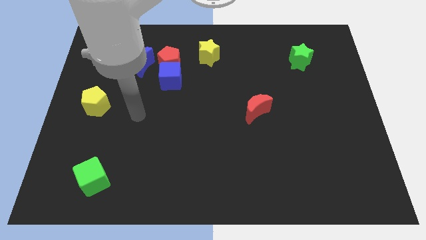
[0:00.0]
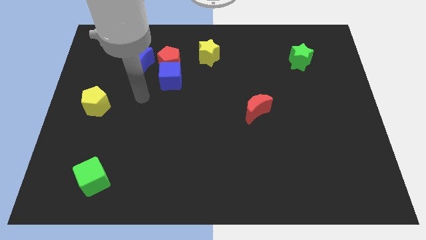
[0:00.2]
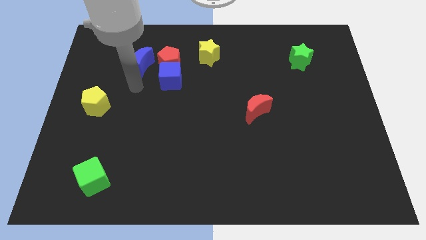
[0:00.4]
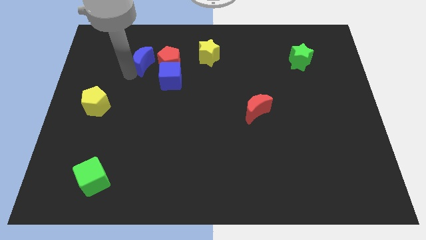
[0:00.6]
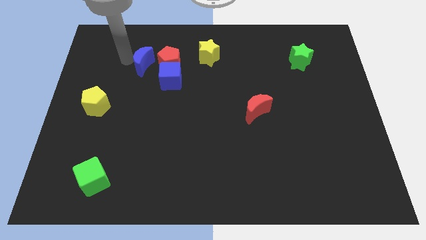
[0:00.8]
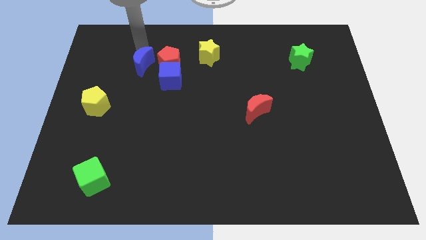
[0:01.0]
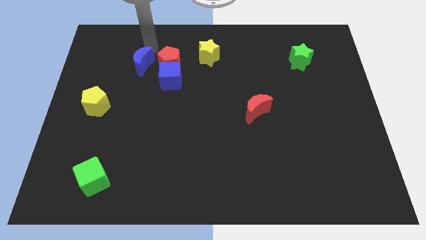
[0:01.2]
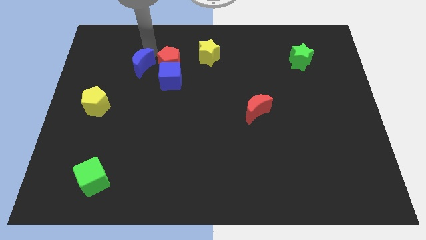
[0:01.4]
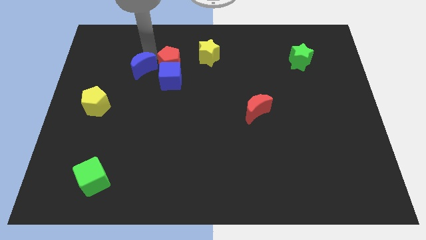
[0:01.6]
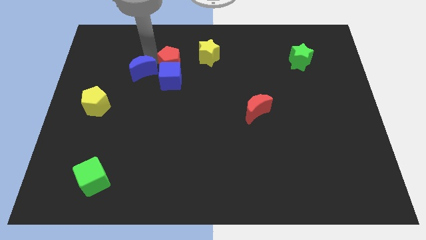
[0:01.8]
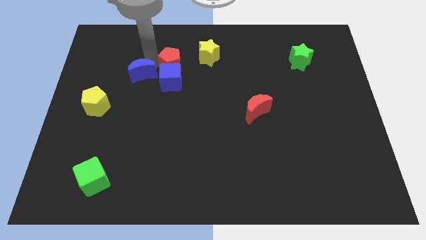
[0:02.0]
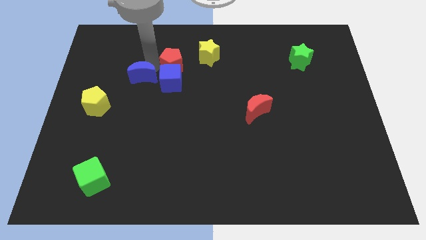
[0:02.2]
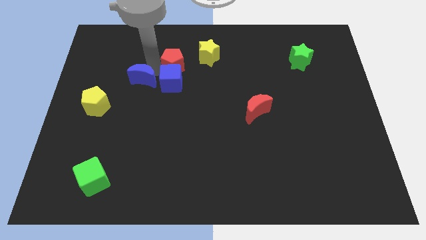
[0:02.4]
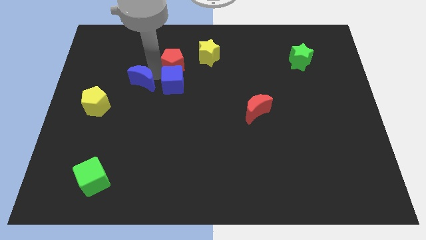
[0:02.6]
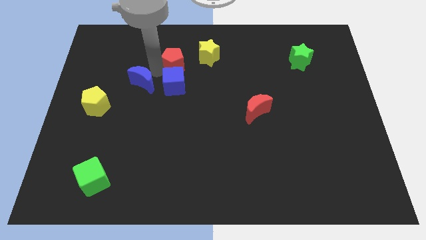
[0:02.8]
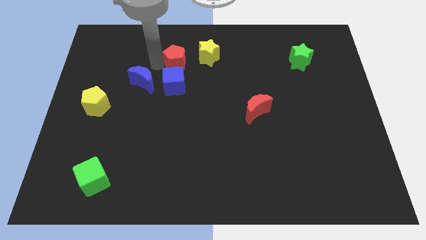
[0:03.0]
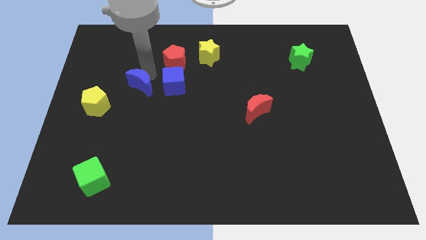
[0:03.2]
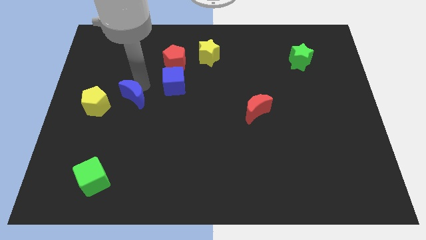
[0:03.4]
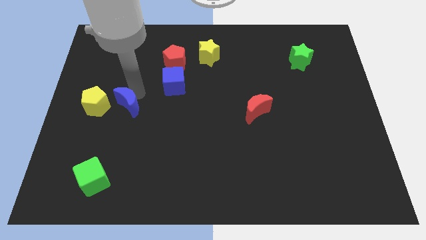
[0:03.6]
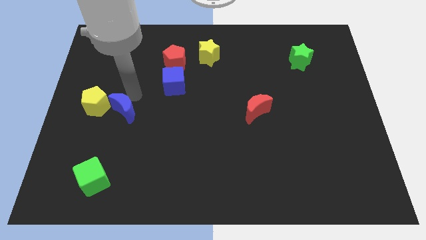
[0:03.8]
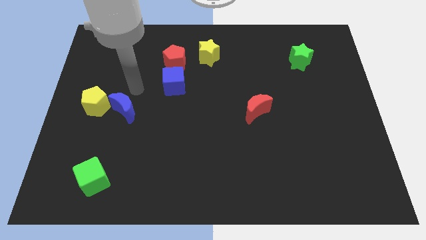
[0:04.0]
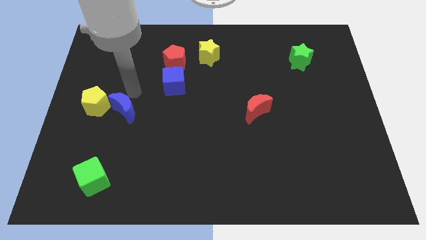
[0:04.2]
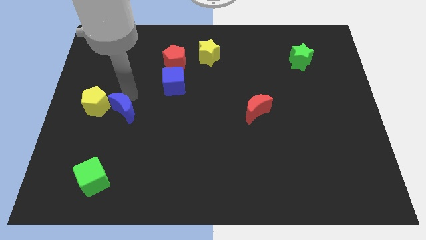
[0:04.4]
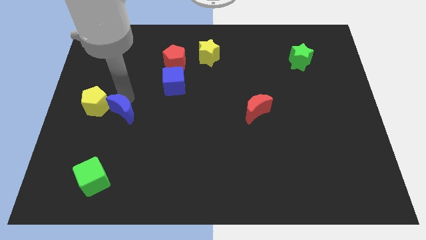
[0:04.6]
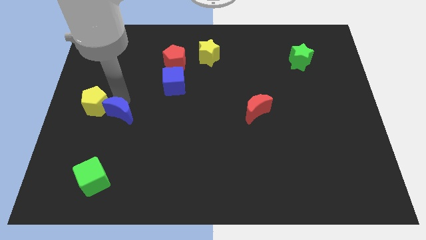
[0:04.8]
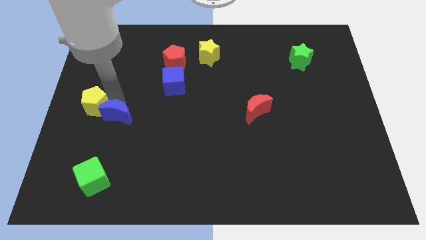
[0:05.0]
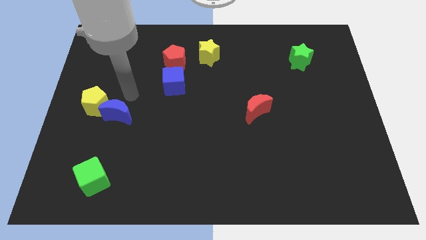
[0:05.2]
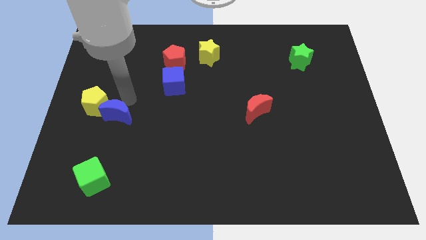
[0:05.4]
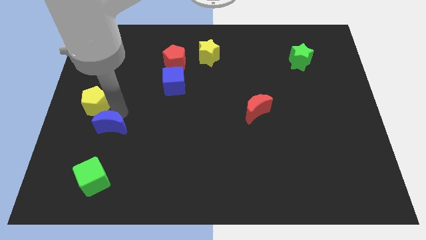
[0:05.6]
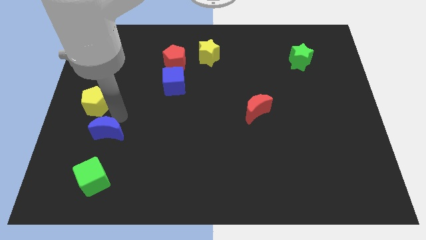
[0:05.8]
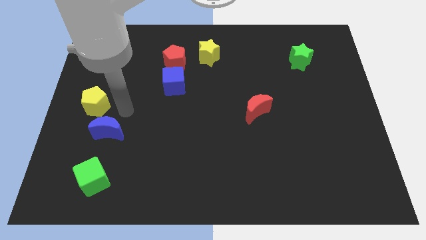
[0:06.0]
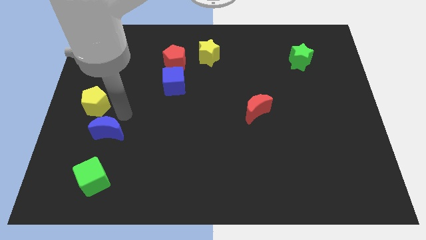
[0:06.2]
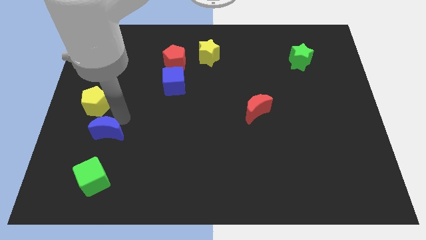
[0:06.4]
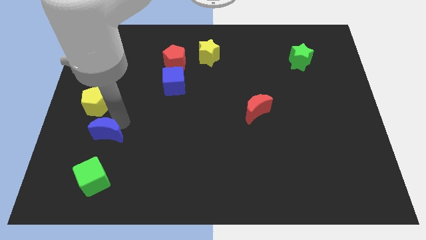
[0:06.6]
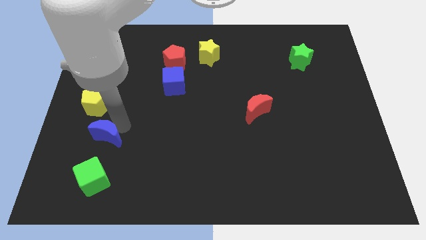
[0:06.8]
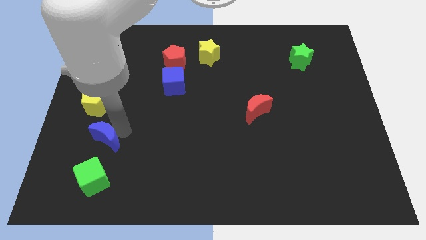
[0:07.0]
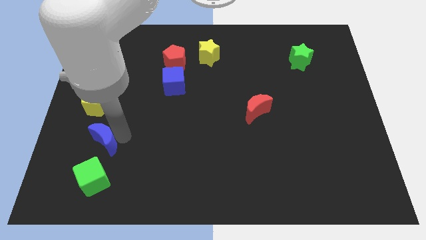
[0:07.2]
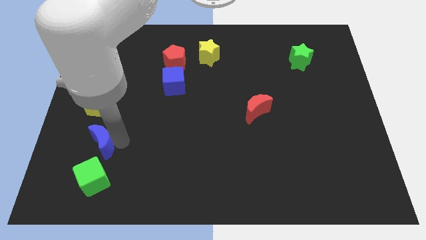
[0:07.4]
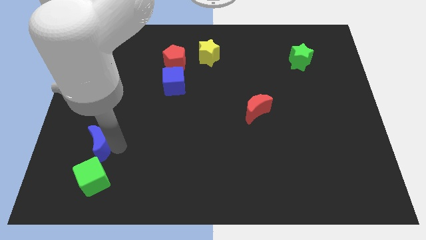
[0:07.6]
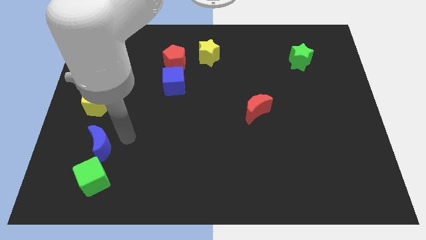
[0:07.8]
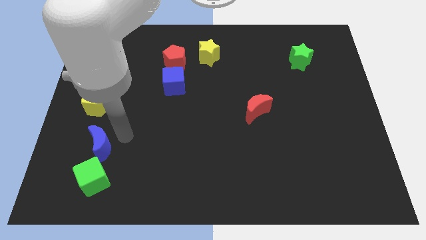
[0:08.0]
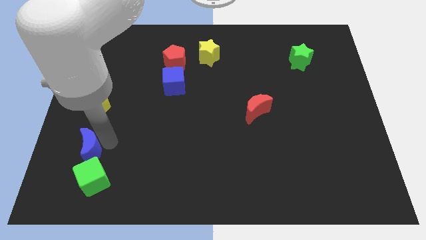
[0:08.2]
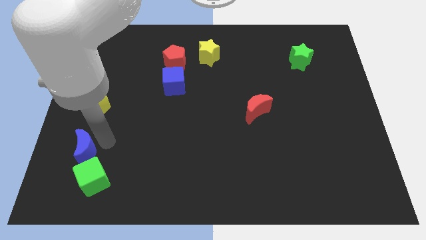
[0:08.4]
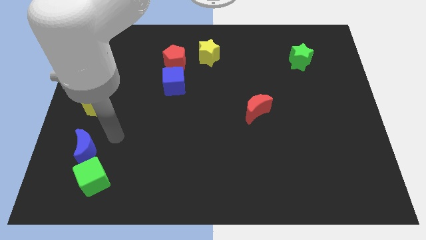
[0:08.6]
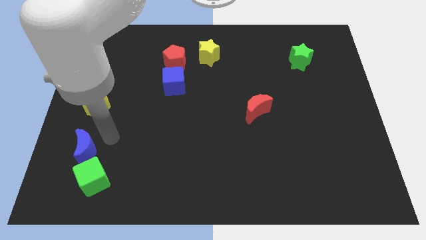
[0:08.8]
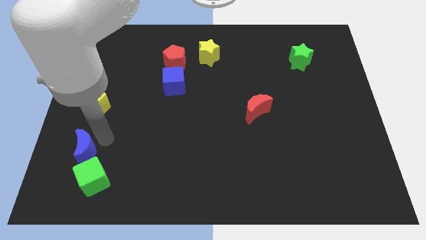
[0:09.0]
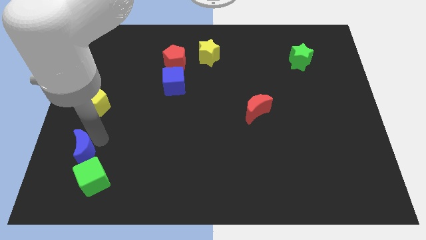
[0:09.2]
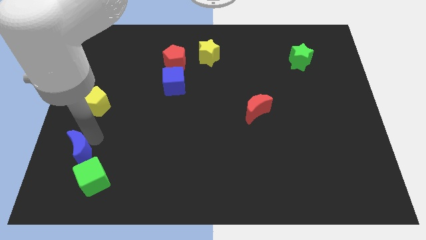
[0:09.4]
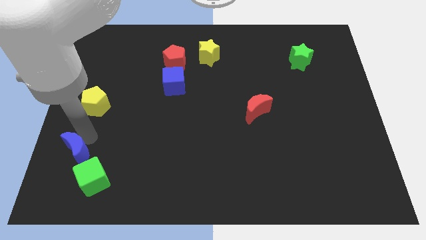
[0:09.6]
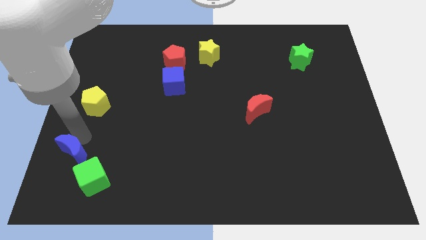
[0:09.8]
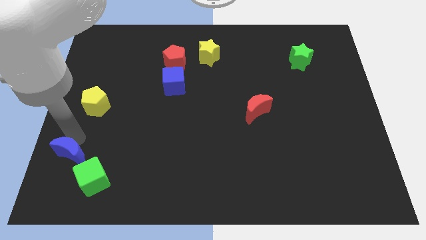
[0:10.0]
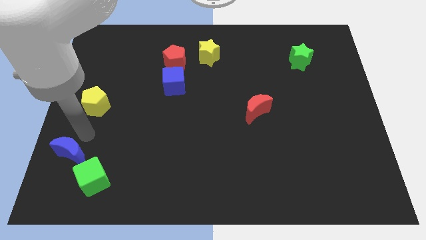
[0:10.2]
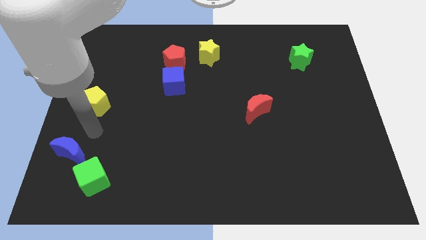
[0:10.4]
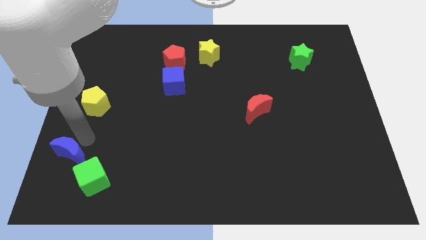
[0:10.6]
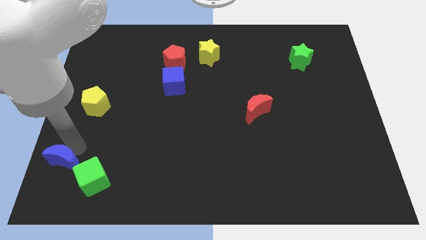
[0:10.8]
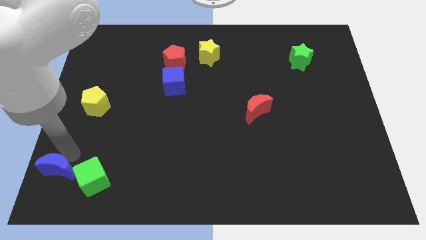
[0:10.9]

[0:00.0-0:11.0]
put the blue moon to the bottom left

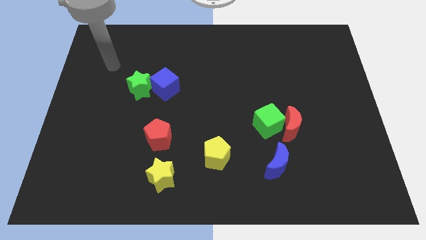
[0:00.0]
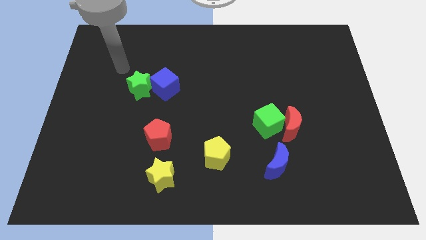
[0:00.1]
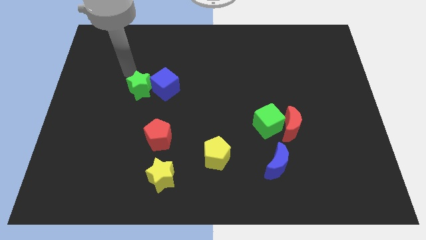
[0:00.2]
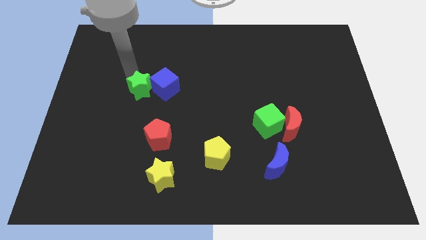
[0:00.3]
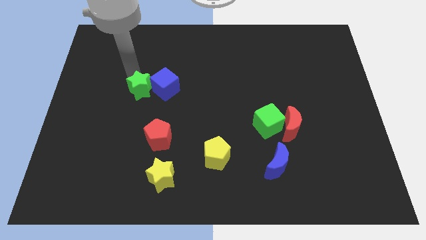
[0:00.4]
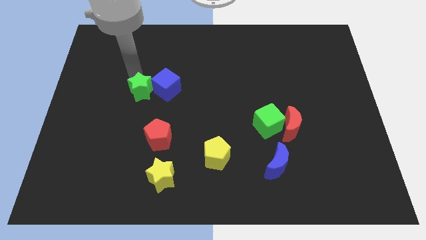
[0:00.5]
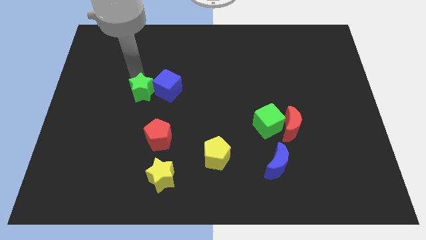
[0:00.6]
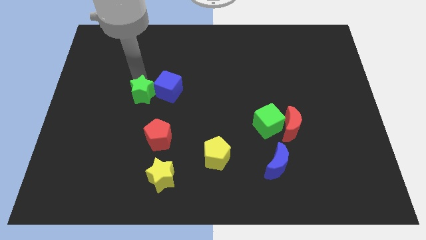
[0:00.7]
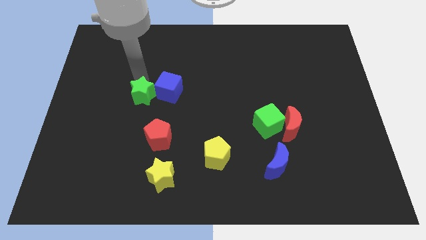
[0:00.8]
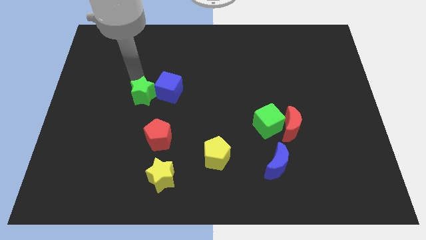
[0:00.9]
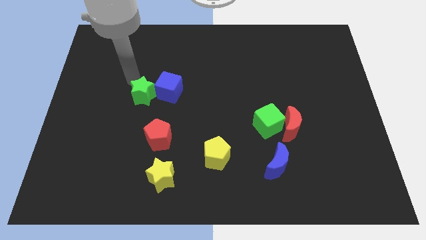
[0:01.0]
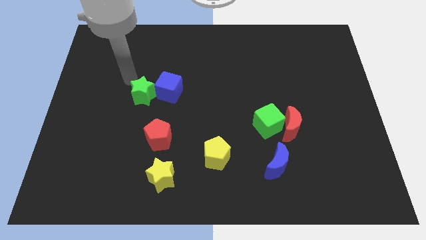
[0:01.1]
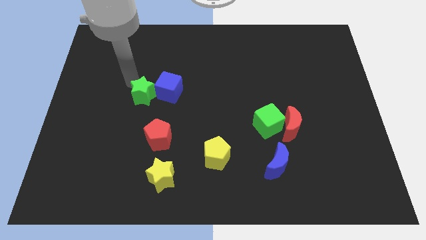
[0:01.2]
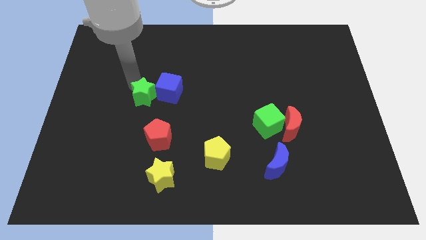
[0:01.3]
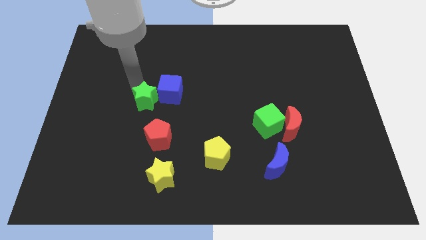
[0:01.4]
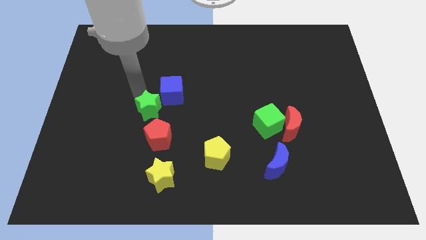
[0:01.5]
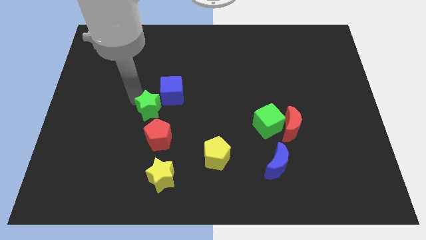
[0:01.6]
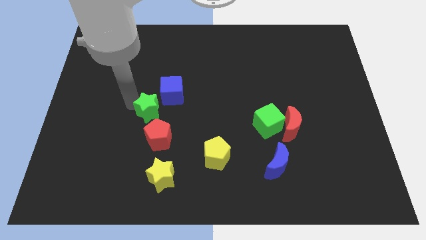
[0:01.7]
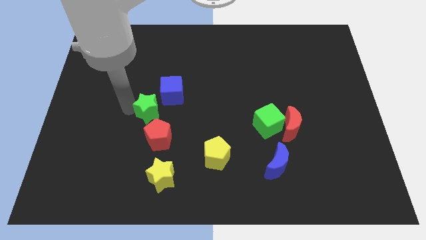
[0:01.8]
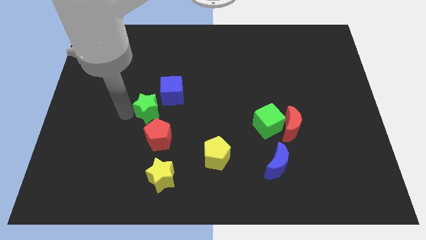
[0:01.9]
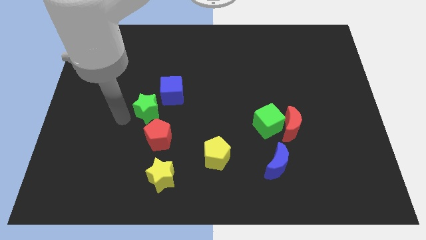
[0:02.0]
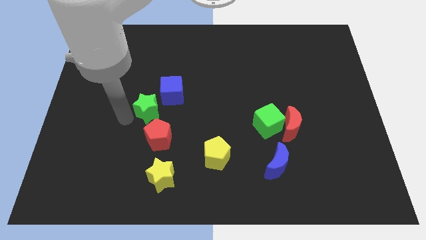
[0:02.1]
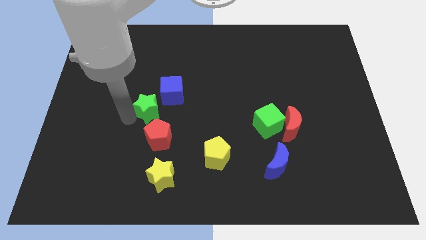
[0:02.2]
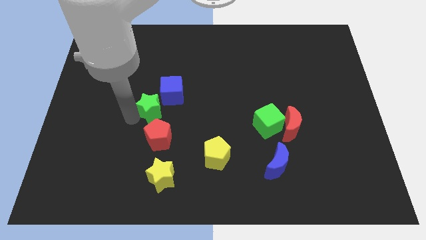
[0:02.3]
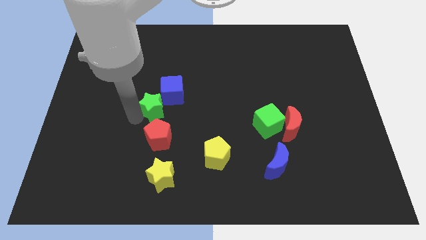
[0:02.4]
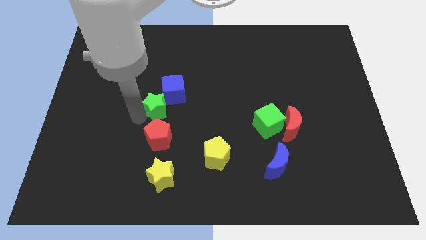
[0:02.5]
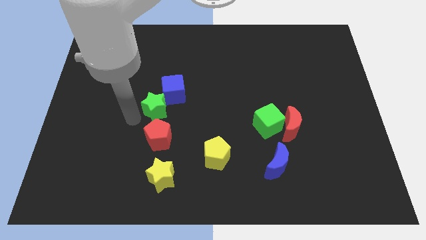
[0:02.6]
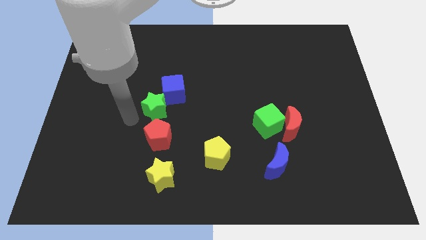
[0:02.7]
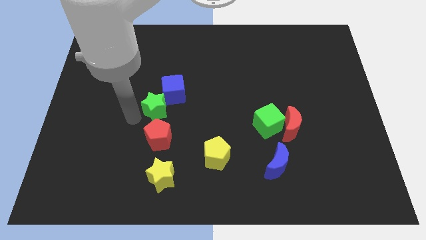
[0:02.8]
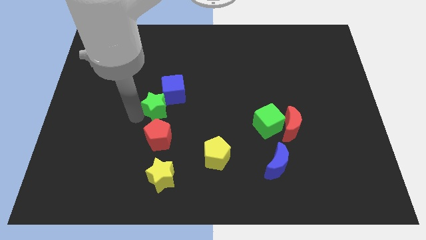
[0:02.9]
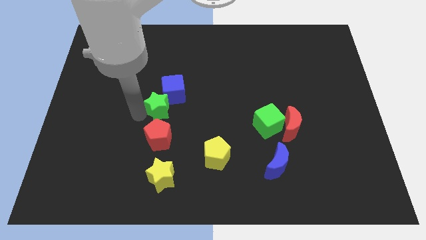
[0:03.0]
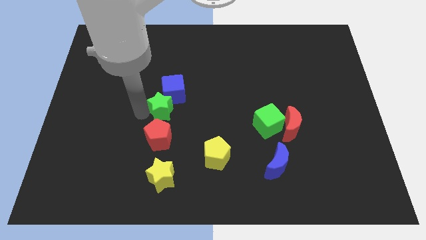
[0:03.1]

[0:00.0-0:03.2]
move the green star to the center
